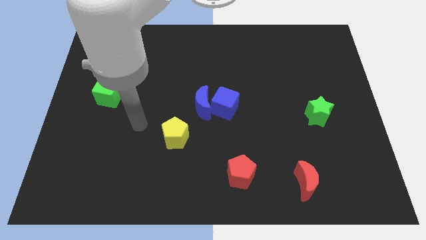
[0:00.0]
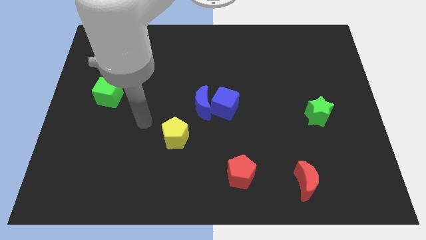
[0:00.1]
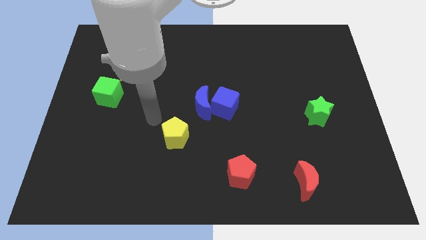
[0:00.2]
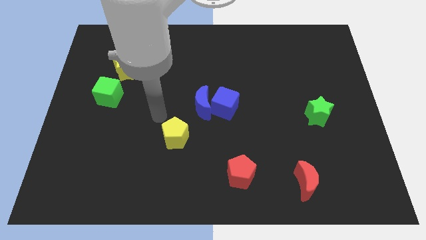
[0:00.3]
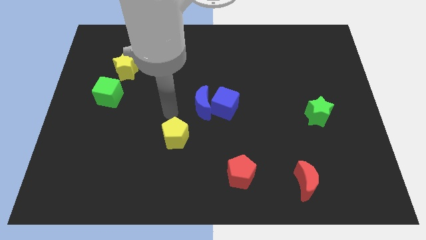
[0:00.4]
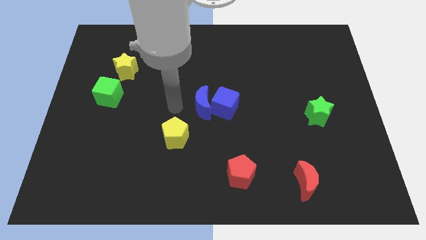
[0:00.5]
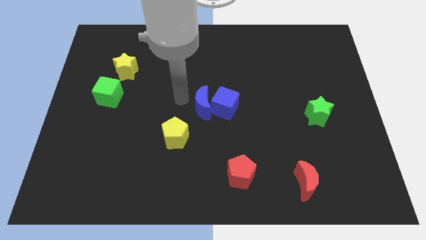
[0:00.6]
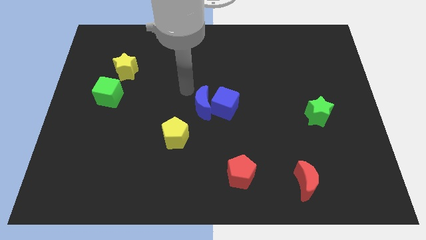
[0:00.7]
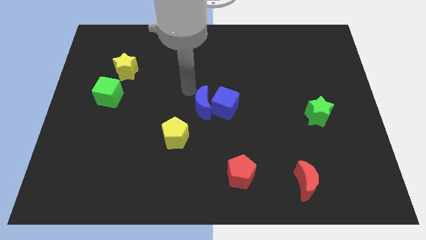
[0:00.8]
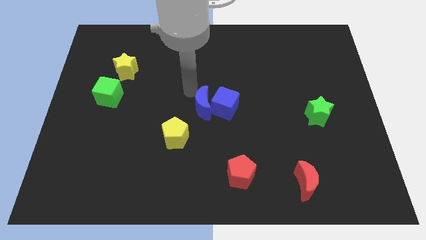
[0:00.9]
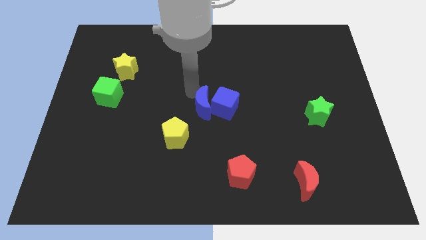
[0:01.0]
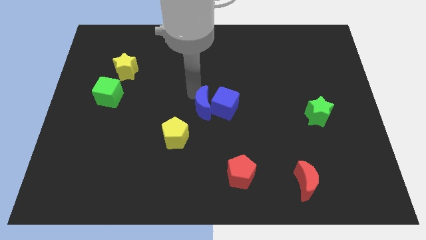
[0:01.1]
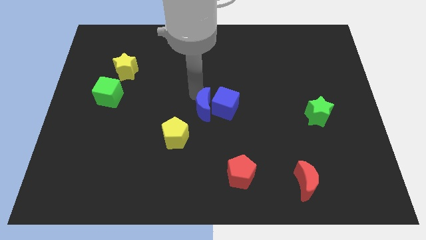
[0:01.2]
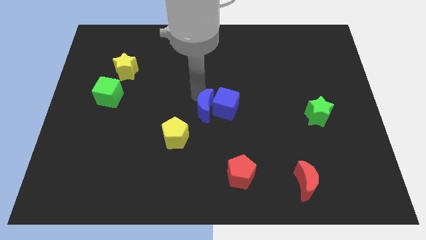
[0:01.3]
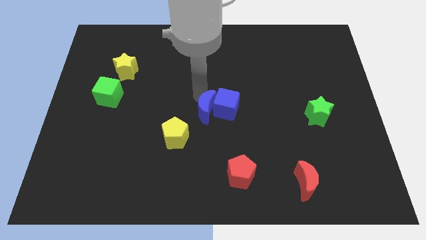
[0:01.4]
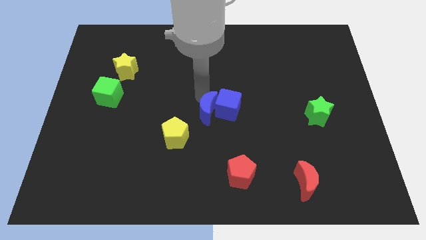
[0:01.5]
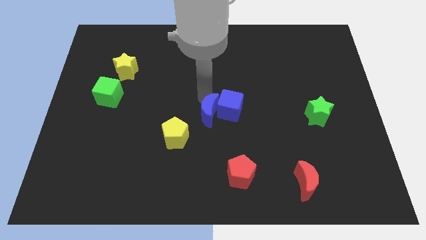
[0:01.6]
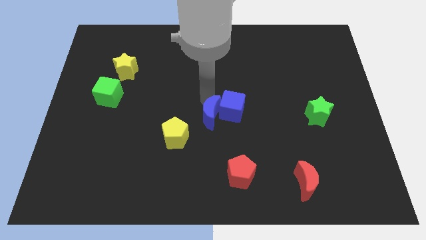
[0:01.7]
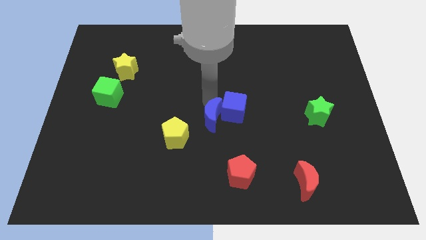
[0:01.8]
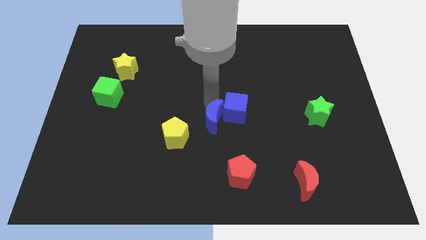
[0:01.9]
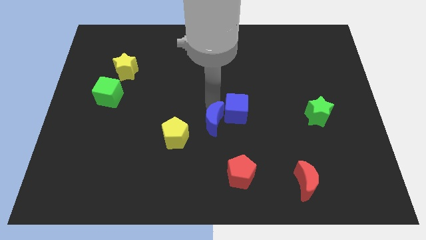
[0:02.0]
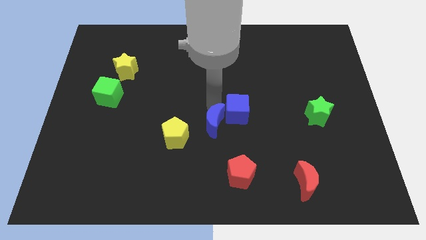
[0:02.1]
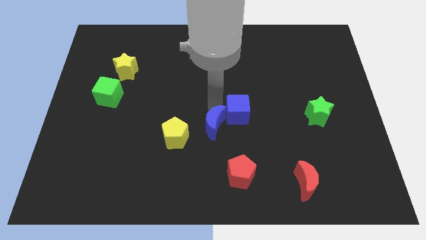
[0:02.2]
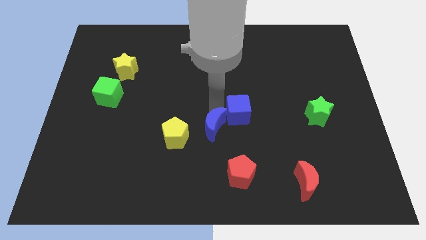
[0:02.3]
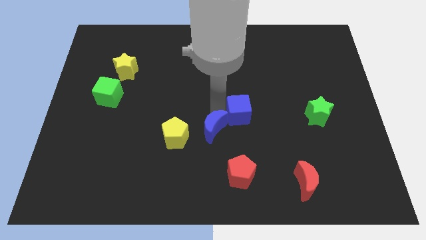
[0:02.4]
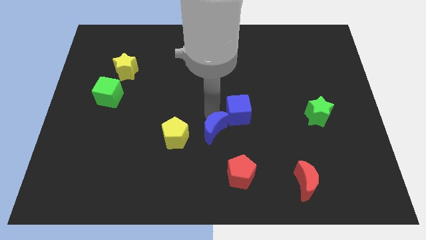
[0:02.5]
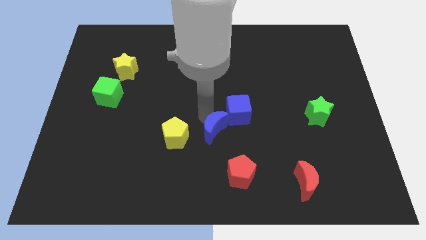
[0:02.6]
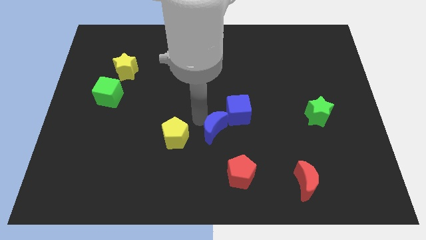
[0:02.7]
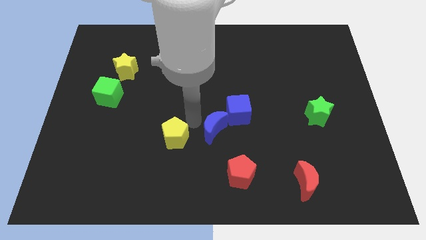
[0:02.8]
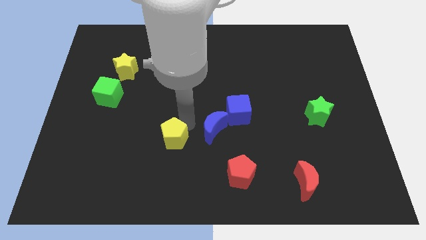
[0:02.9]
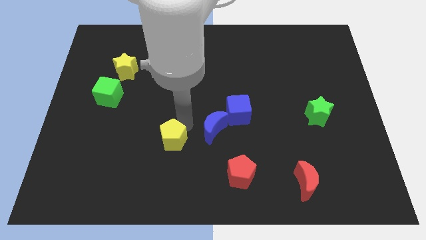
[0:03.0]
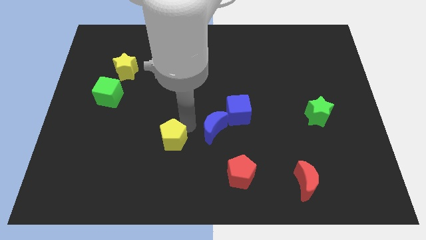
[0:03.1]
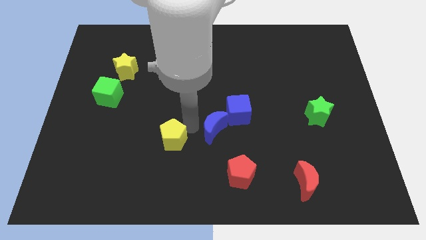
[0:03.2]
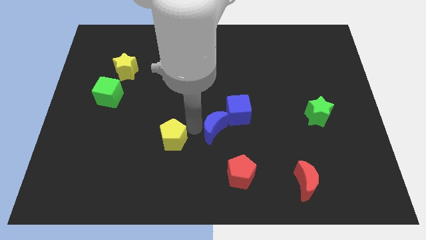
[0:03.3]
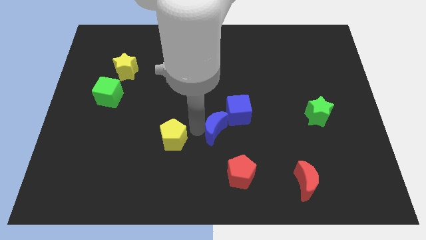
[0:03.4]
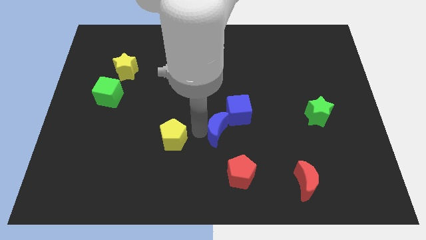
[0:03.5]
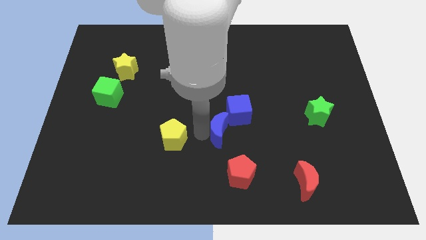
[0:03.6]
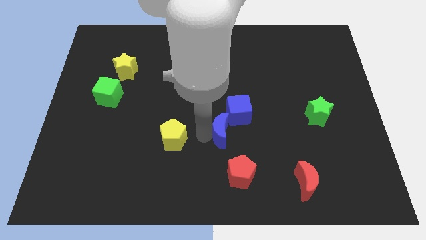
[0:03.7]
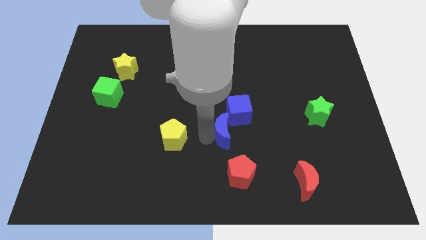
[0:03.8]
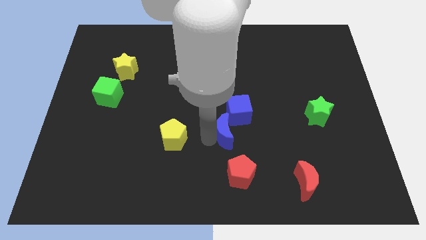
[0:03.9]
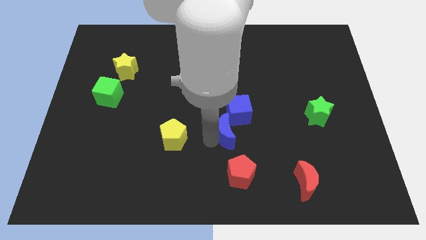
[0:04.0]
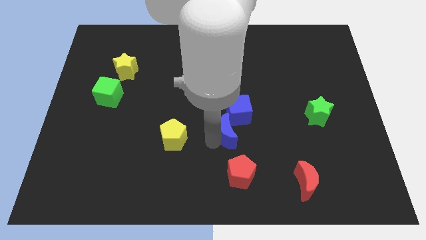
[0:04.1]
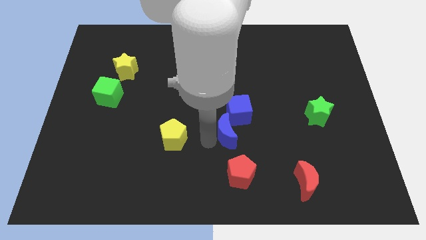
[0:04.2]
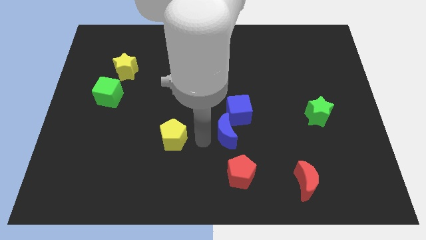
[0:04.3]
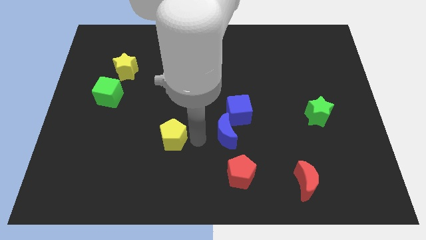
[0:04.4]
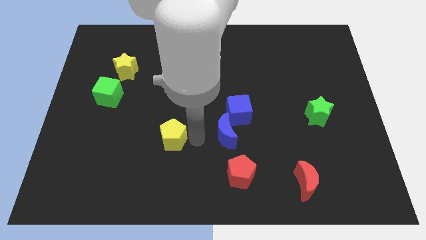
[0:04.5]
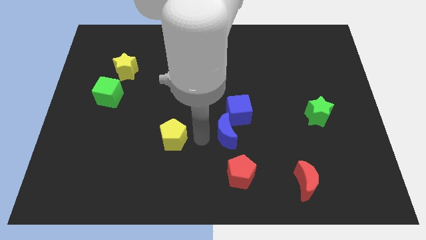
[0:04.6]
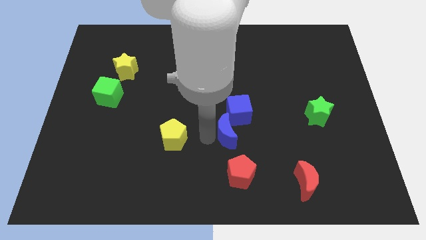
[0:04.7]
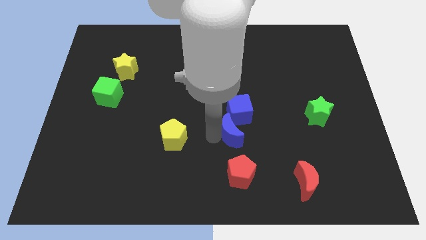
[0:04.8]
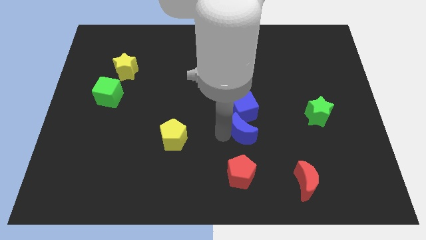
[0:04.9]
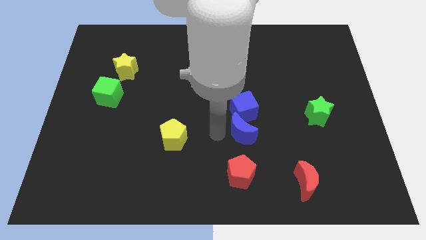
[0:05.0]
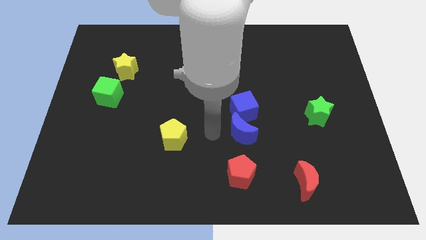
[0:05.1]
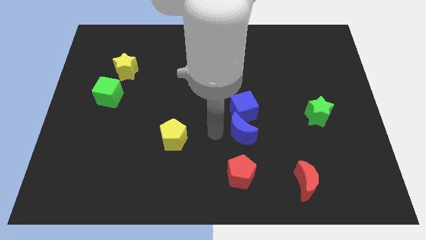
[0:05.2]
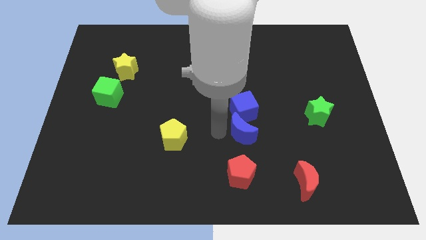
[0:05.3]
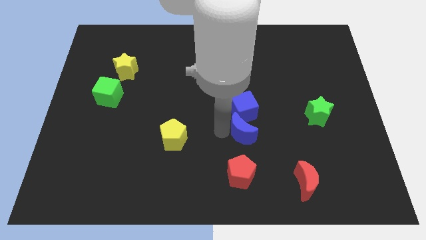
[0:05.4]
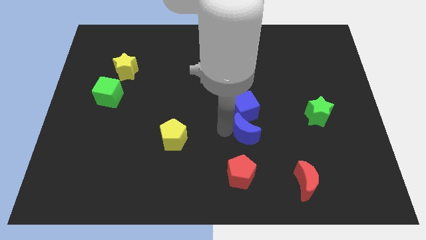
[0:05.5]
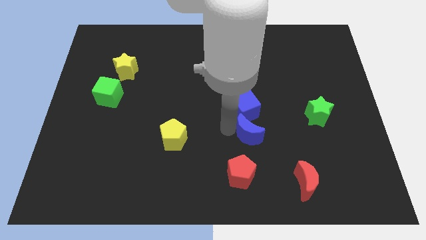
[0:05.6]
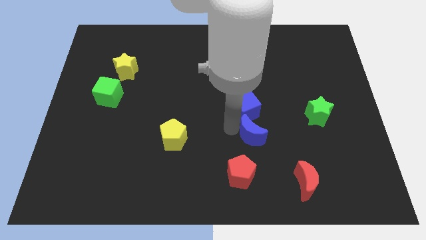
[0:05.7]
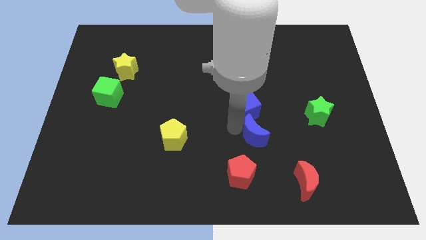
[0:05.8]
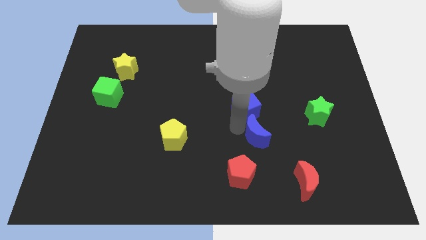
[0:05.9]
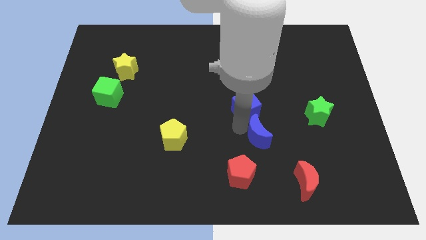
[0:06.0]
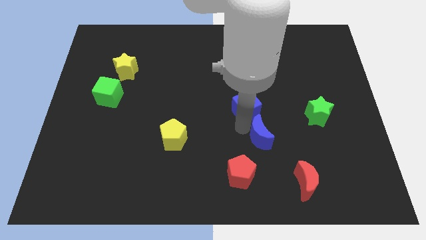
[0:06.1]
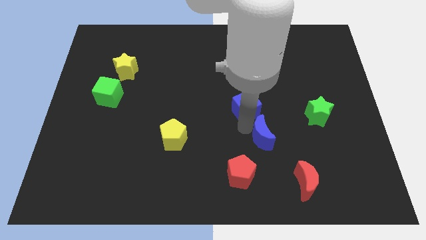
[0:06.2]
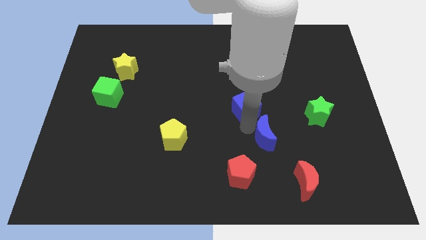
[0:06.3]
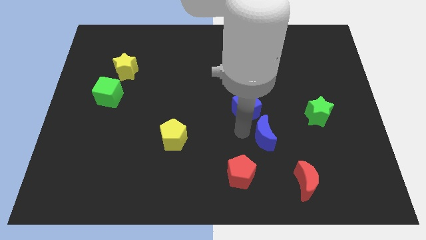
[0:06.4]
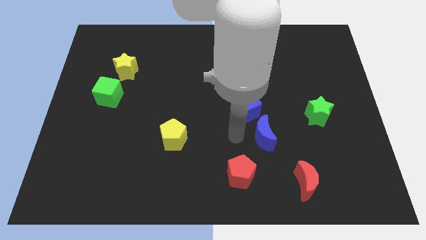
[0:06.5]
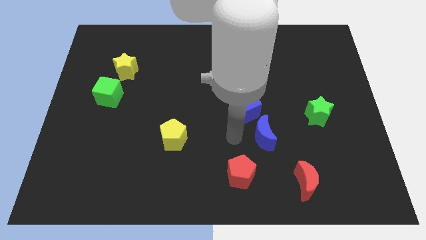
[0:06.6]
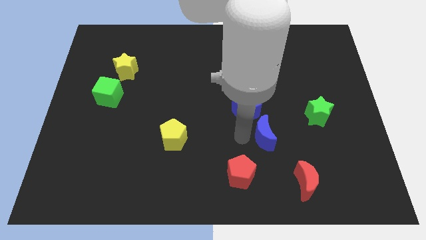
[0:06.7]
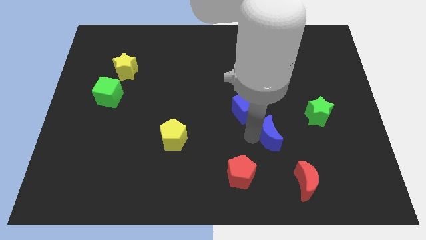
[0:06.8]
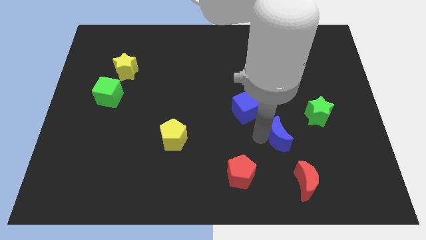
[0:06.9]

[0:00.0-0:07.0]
put the blue moon diagonally down and to the left of the green star

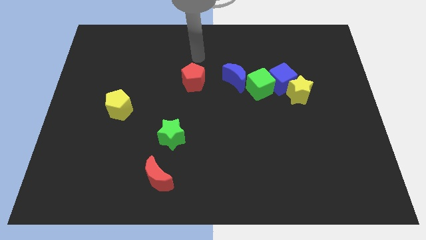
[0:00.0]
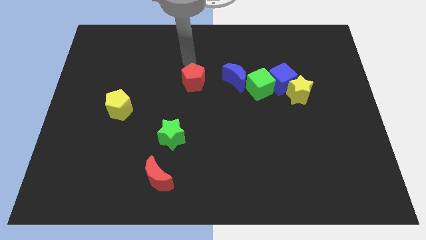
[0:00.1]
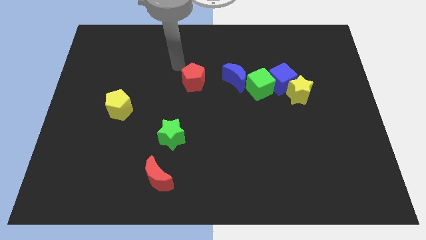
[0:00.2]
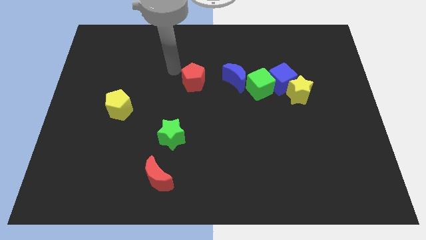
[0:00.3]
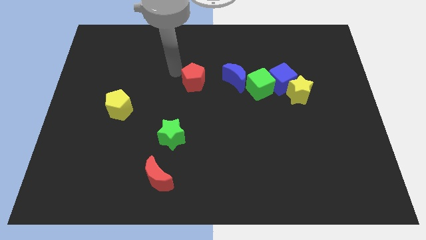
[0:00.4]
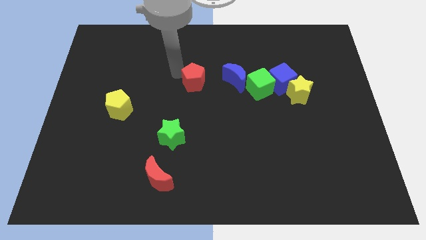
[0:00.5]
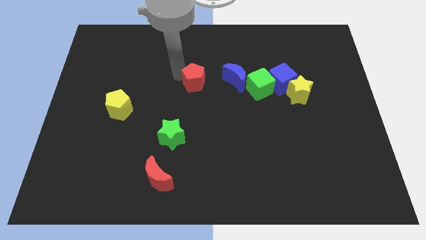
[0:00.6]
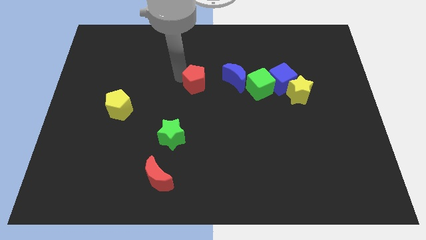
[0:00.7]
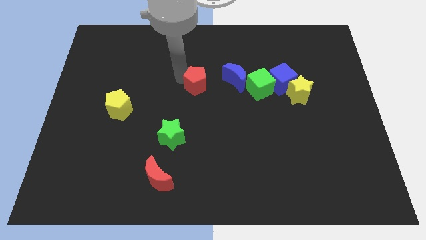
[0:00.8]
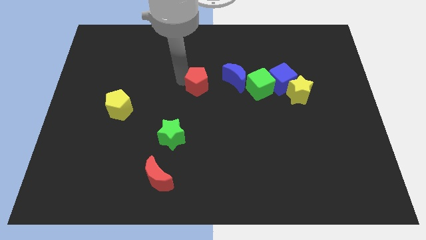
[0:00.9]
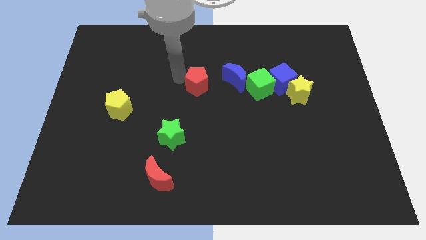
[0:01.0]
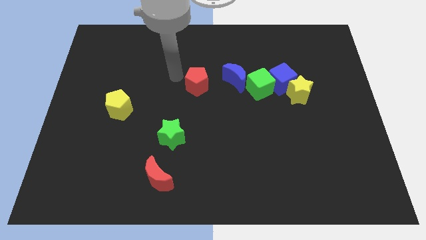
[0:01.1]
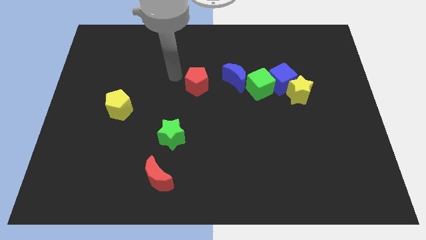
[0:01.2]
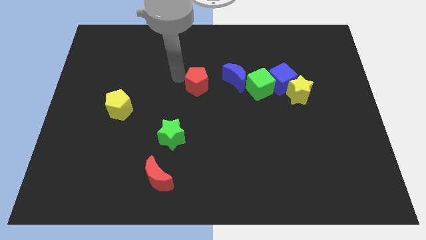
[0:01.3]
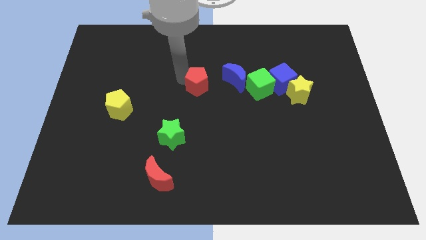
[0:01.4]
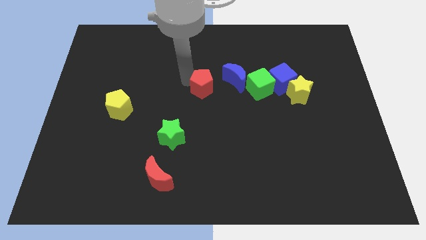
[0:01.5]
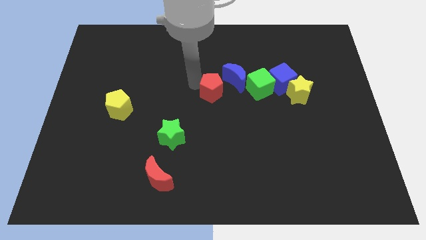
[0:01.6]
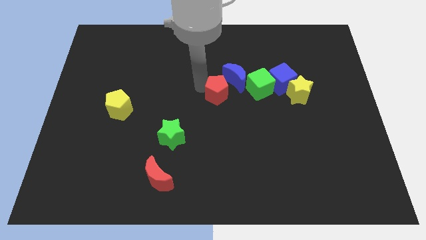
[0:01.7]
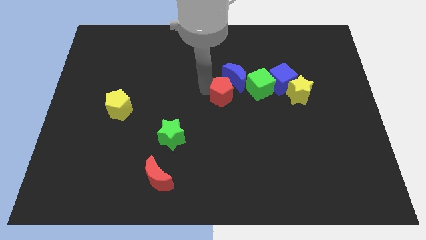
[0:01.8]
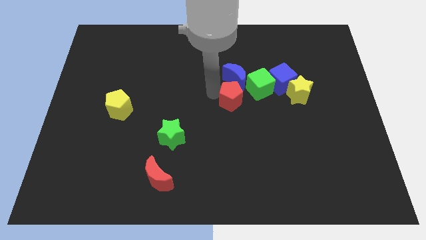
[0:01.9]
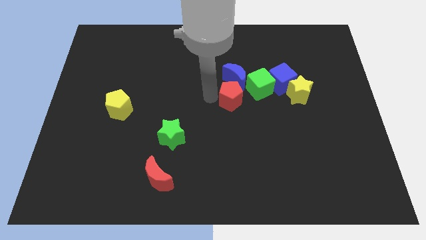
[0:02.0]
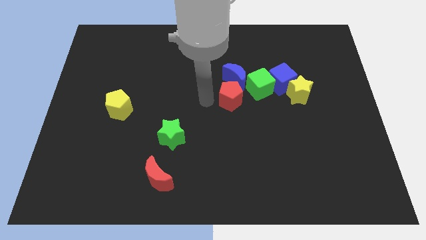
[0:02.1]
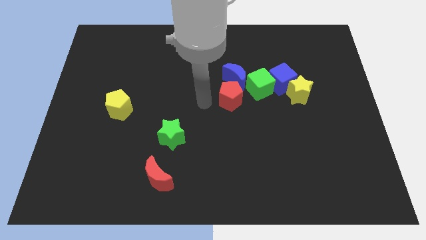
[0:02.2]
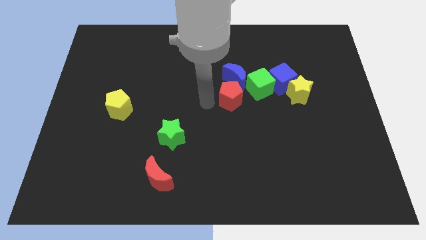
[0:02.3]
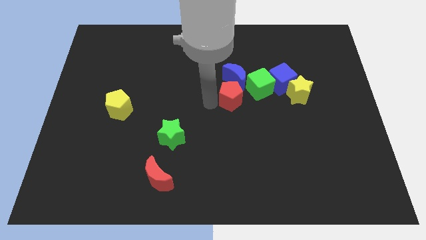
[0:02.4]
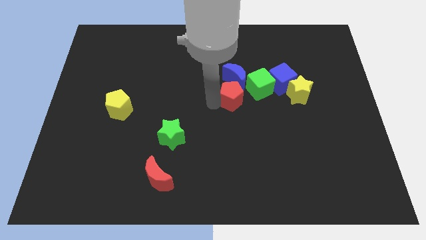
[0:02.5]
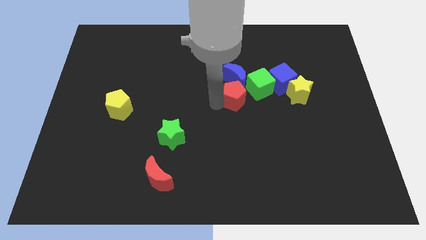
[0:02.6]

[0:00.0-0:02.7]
put the red pentagon just left of the yellow star
